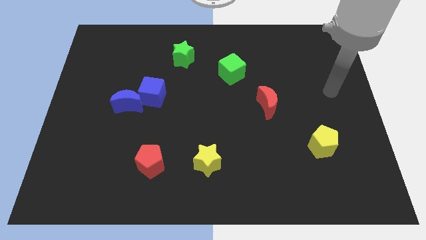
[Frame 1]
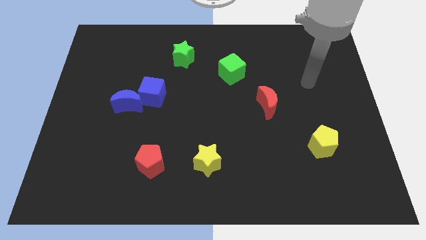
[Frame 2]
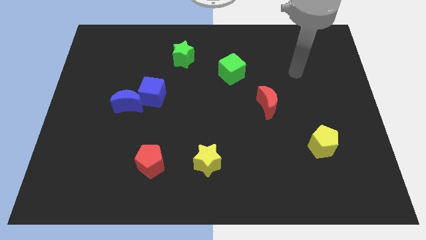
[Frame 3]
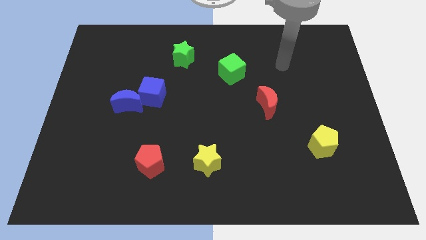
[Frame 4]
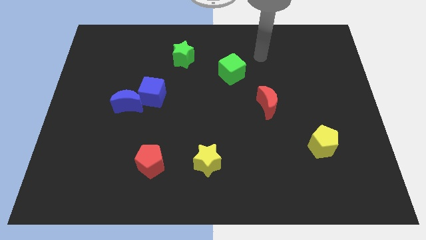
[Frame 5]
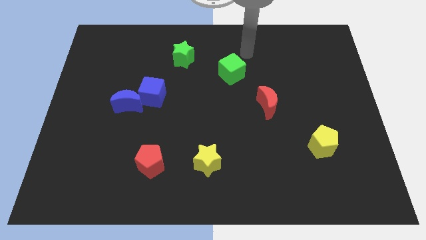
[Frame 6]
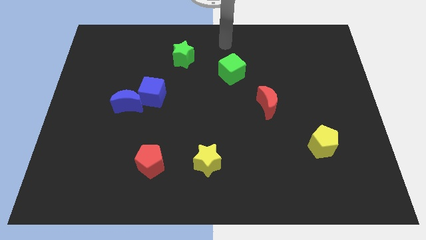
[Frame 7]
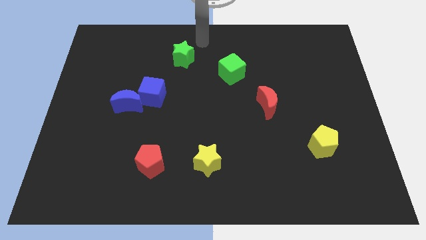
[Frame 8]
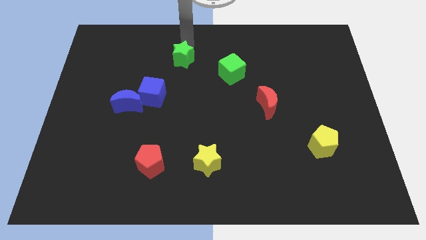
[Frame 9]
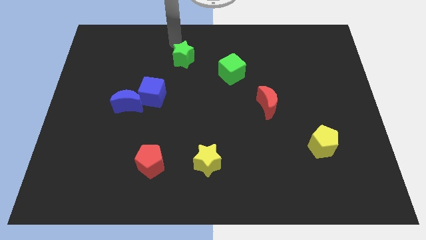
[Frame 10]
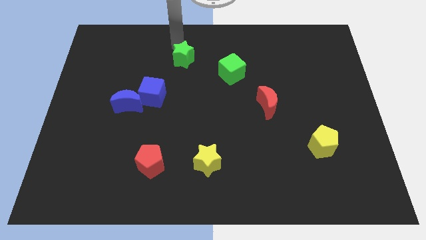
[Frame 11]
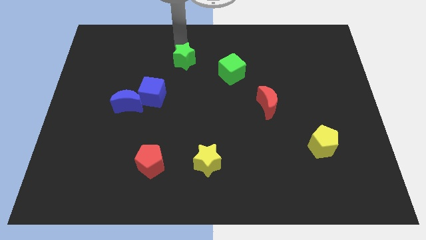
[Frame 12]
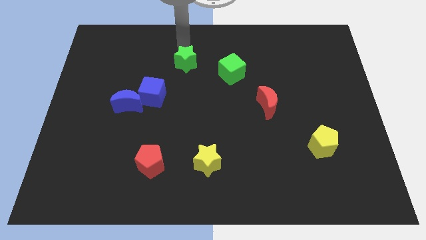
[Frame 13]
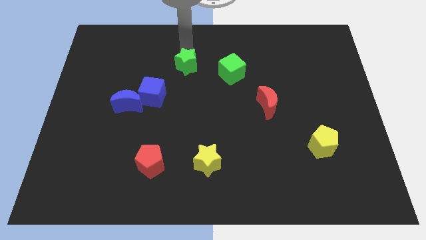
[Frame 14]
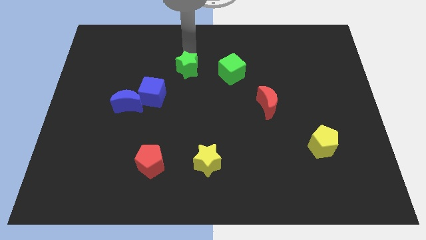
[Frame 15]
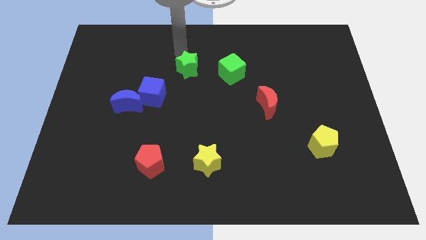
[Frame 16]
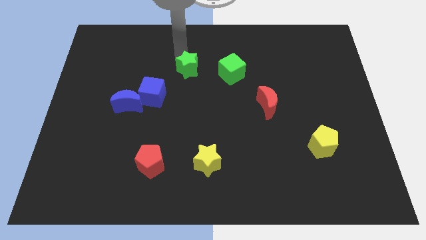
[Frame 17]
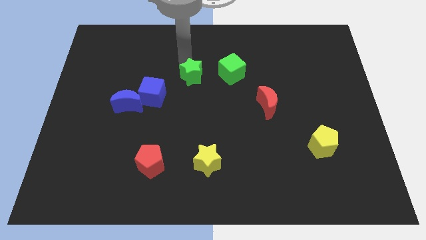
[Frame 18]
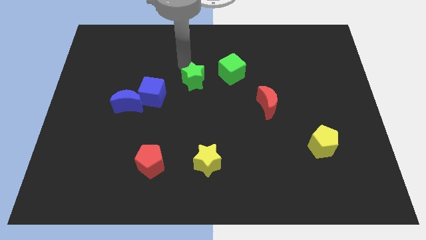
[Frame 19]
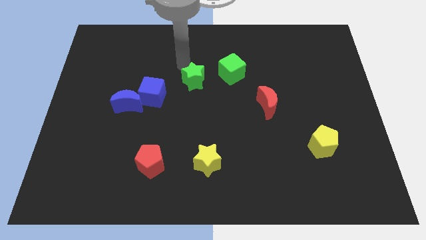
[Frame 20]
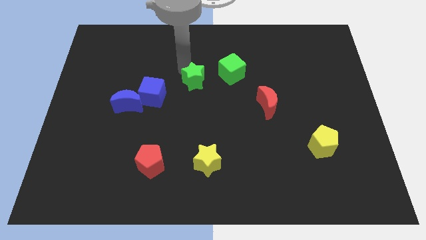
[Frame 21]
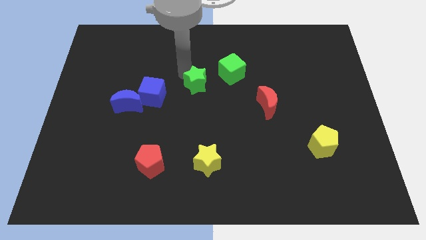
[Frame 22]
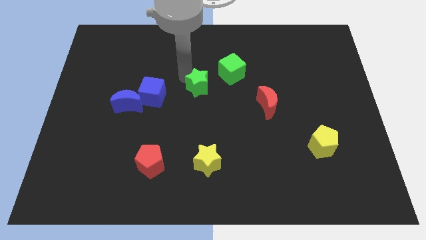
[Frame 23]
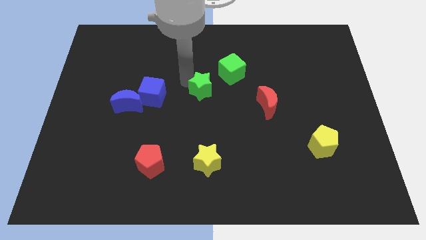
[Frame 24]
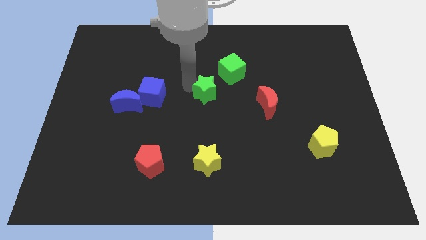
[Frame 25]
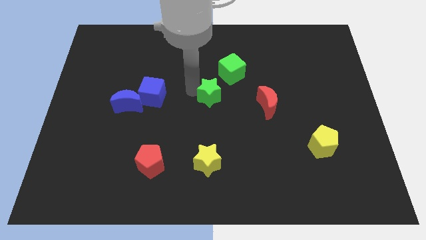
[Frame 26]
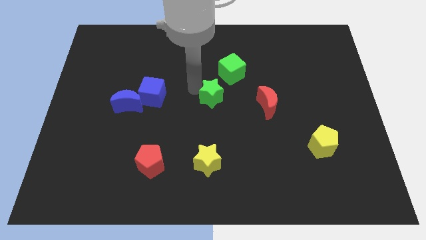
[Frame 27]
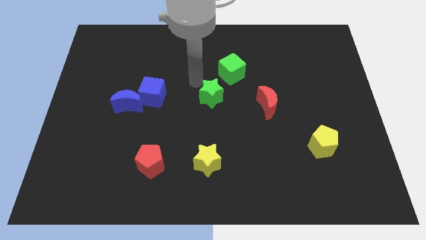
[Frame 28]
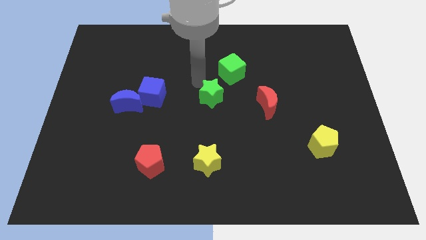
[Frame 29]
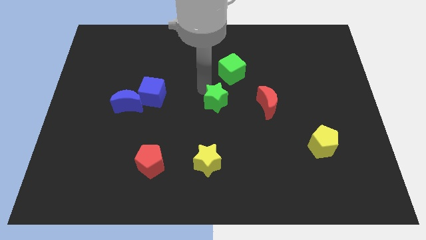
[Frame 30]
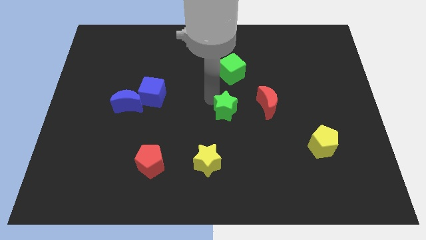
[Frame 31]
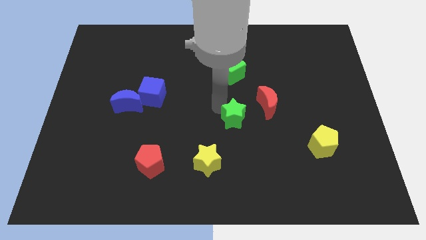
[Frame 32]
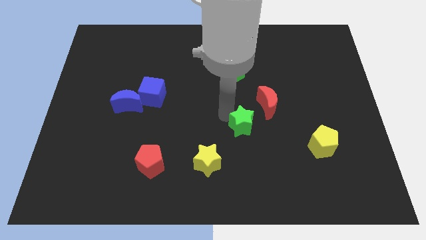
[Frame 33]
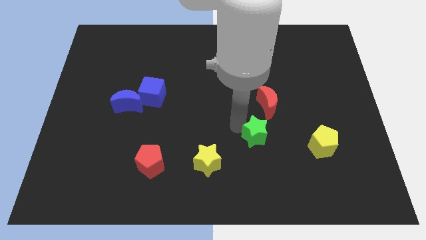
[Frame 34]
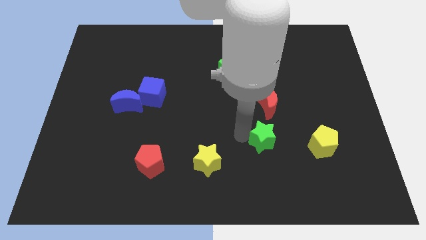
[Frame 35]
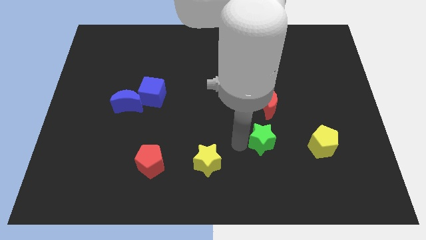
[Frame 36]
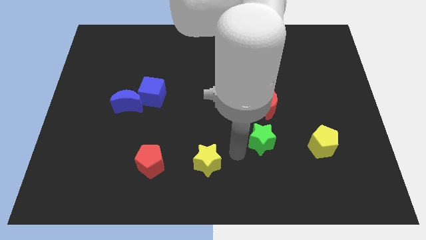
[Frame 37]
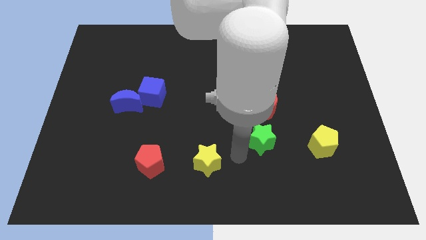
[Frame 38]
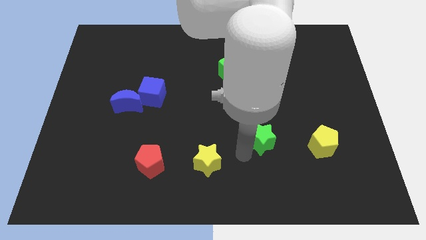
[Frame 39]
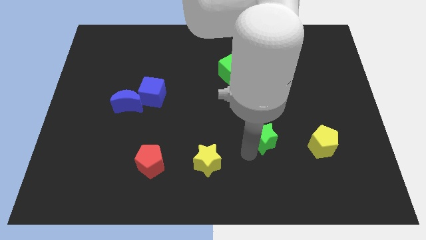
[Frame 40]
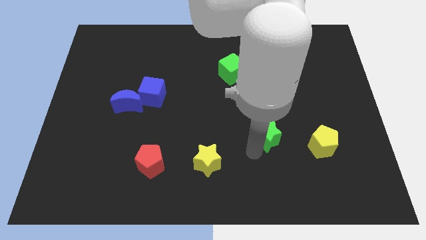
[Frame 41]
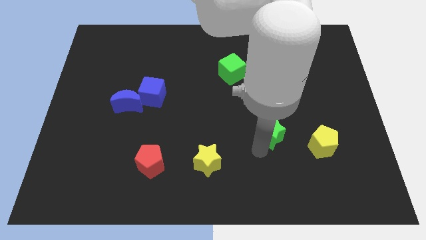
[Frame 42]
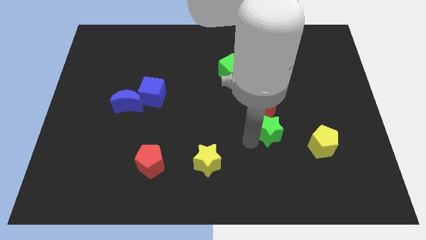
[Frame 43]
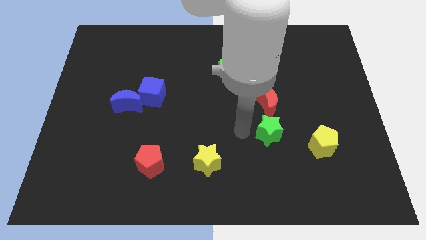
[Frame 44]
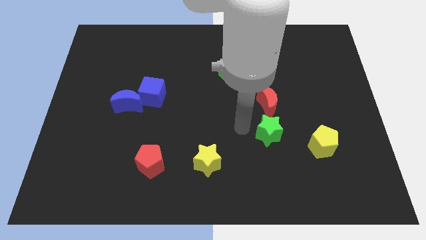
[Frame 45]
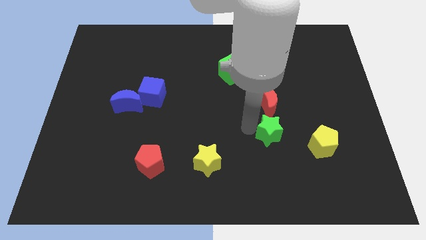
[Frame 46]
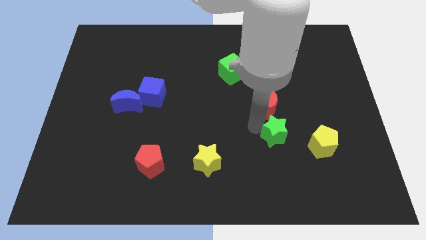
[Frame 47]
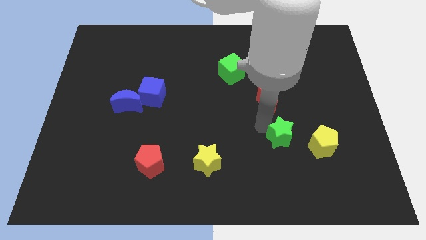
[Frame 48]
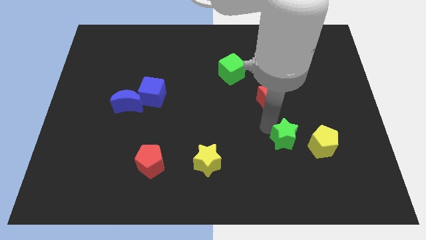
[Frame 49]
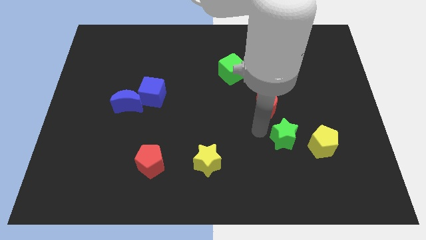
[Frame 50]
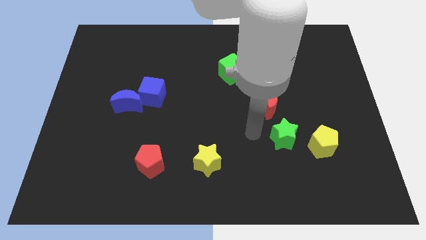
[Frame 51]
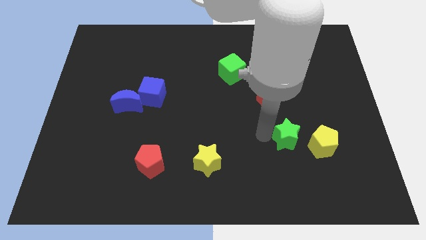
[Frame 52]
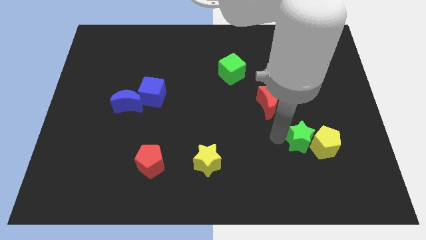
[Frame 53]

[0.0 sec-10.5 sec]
put the green star to the yellow pentagon
